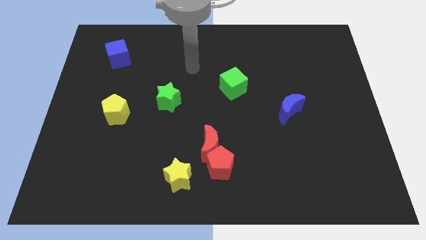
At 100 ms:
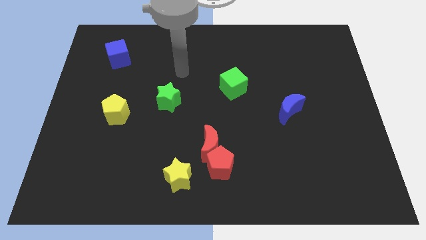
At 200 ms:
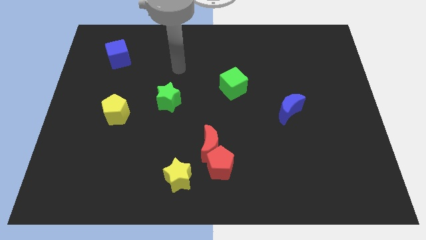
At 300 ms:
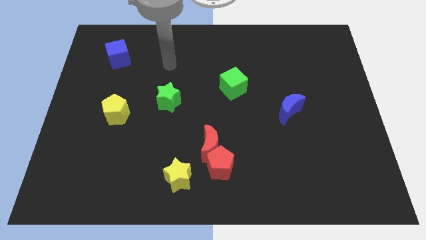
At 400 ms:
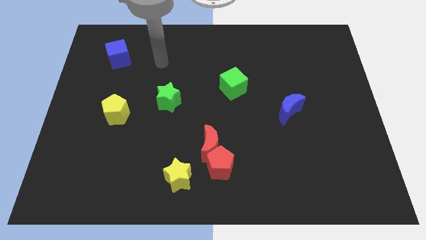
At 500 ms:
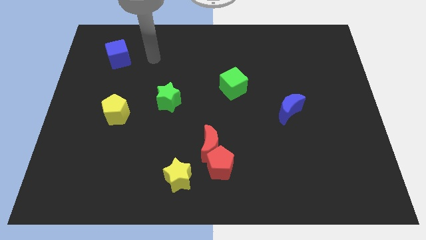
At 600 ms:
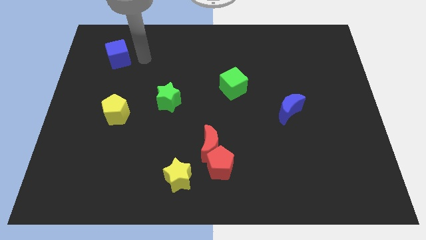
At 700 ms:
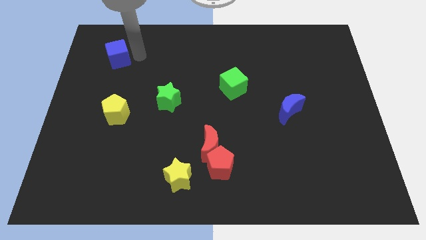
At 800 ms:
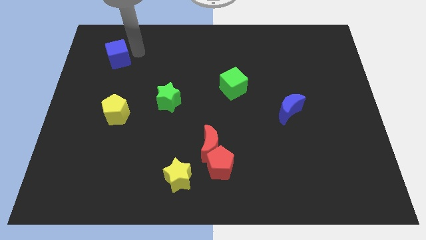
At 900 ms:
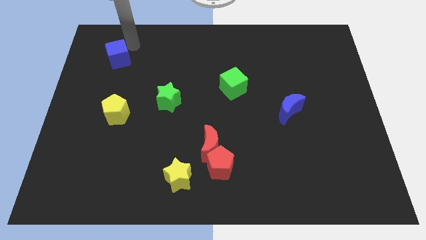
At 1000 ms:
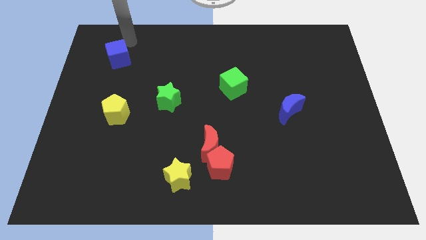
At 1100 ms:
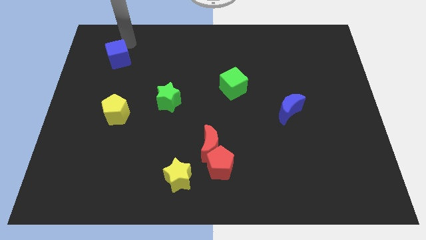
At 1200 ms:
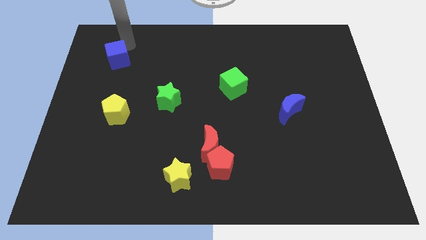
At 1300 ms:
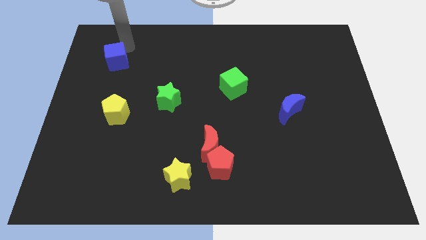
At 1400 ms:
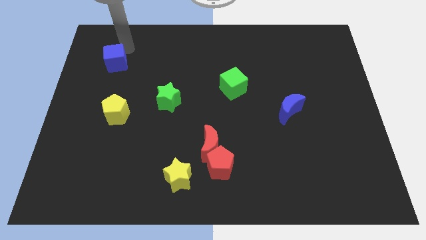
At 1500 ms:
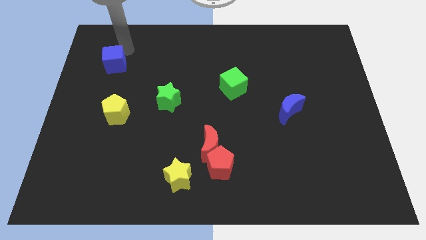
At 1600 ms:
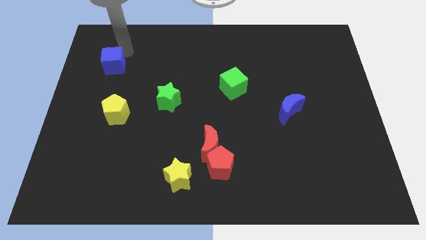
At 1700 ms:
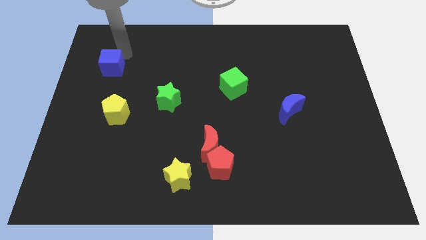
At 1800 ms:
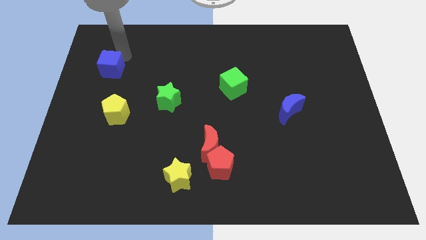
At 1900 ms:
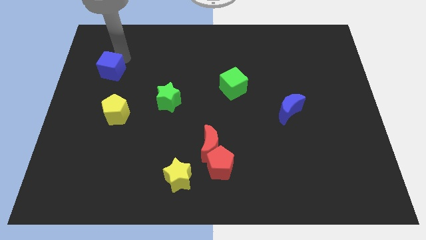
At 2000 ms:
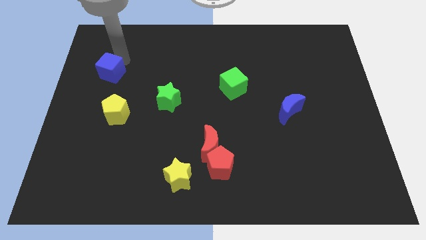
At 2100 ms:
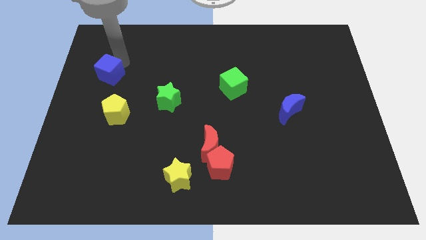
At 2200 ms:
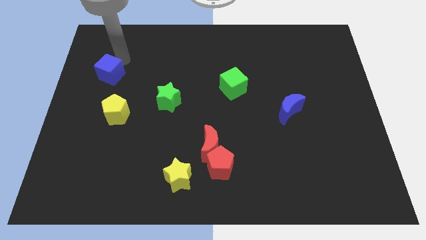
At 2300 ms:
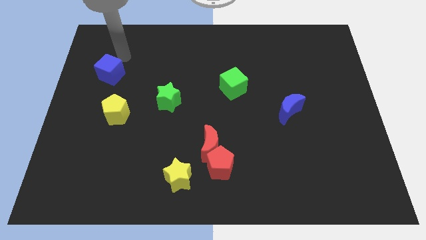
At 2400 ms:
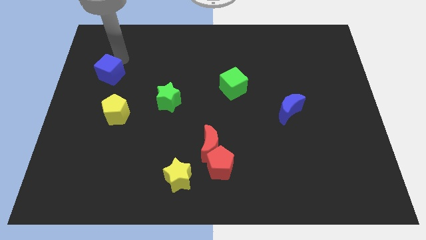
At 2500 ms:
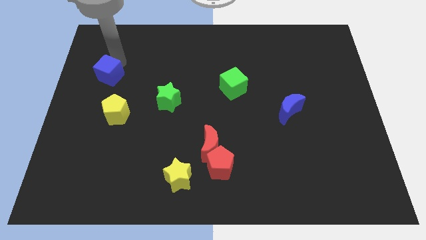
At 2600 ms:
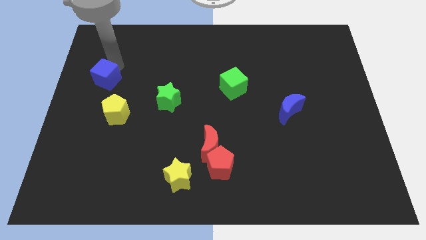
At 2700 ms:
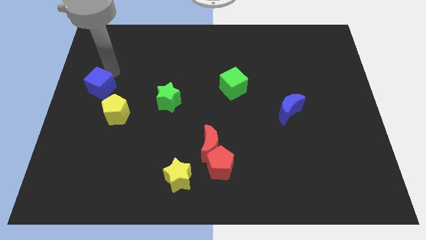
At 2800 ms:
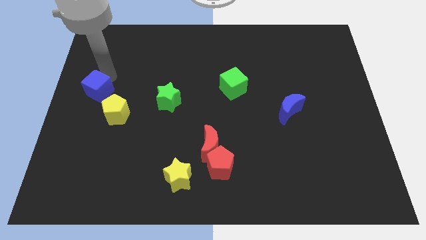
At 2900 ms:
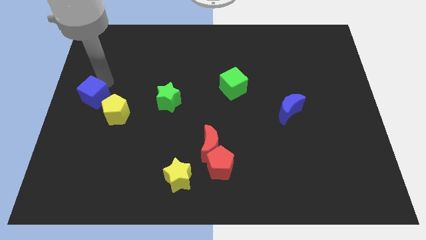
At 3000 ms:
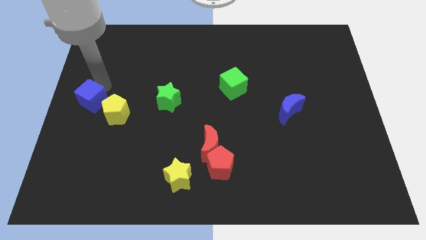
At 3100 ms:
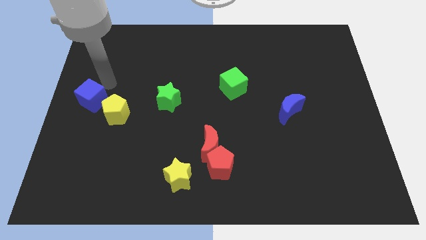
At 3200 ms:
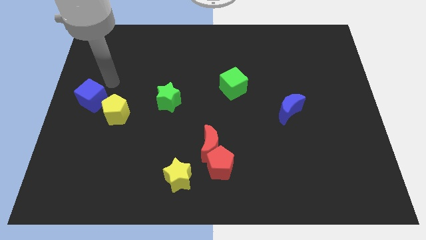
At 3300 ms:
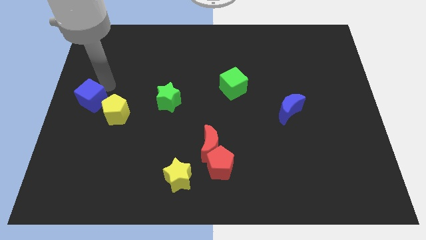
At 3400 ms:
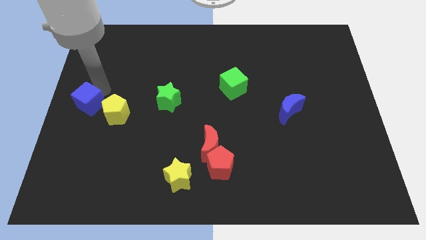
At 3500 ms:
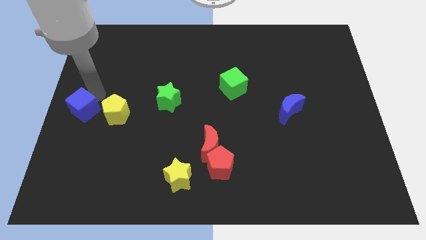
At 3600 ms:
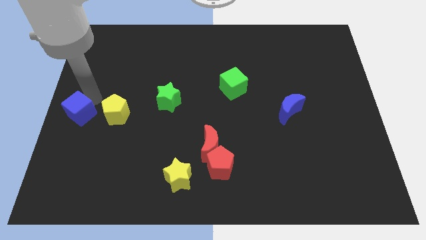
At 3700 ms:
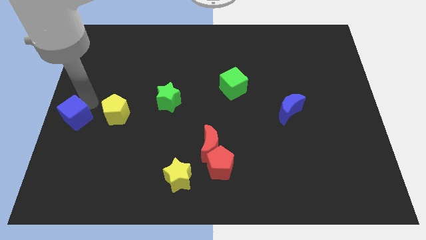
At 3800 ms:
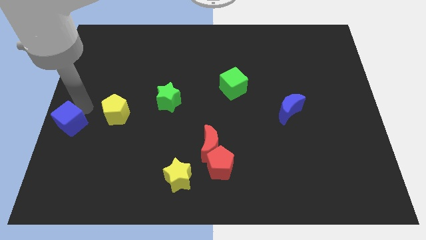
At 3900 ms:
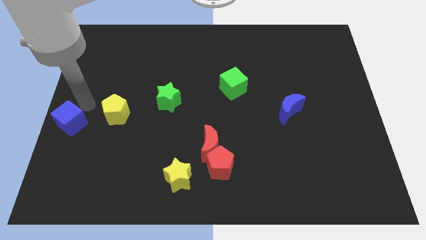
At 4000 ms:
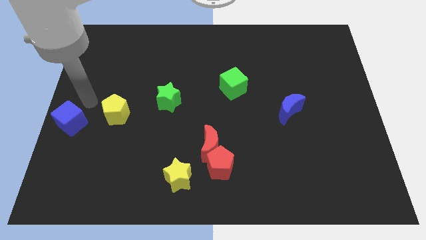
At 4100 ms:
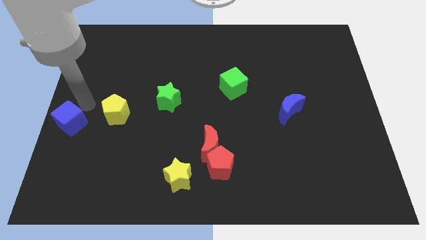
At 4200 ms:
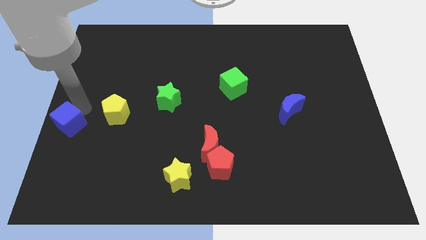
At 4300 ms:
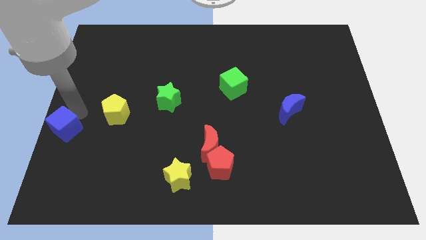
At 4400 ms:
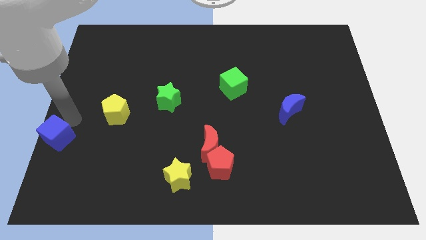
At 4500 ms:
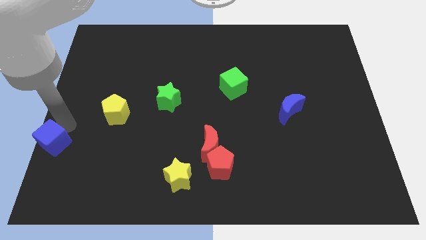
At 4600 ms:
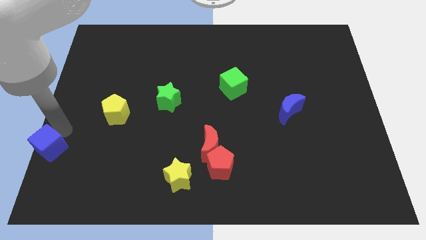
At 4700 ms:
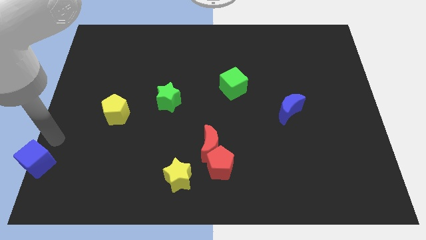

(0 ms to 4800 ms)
put the blue cube to the bottom left

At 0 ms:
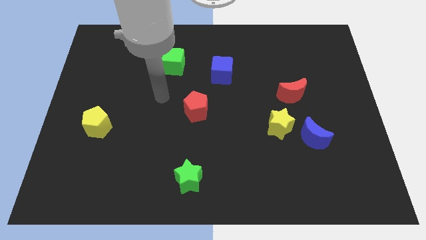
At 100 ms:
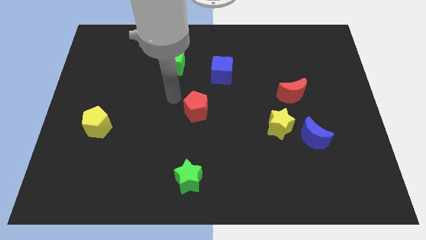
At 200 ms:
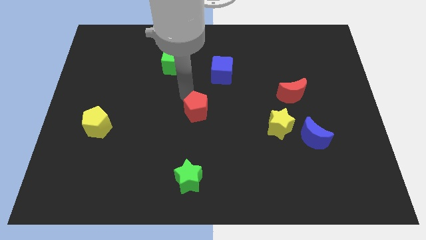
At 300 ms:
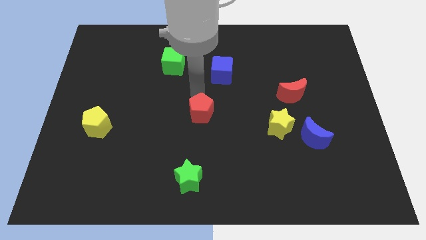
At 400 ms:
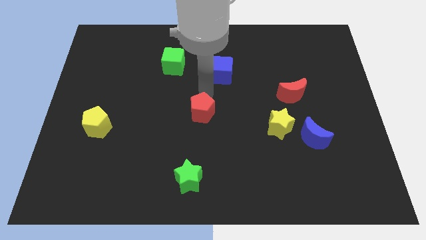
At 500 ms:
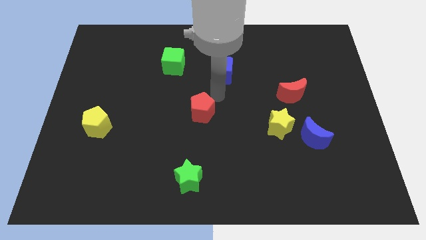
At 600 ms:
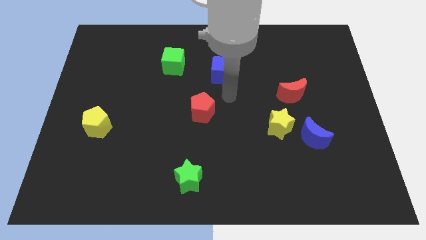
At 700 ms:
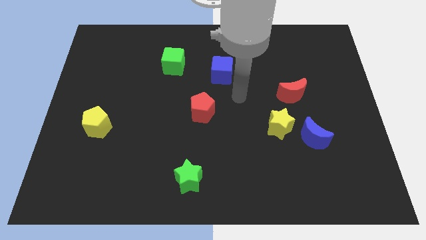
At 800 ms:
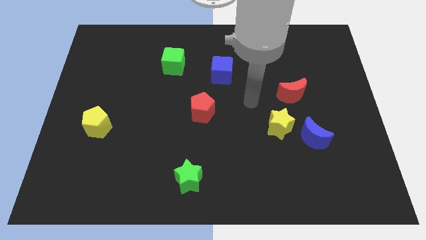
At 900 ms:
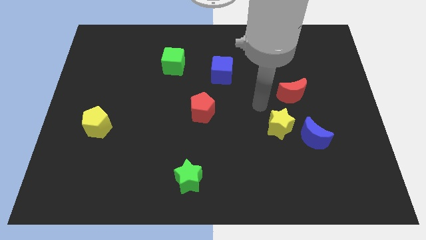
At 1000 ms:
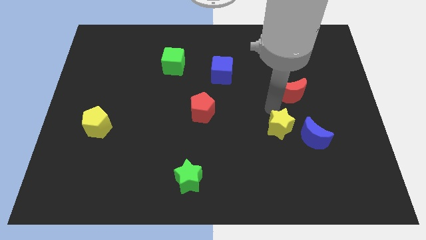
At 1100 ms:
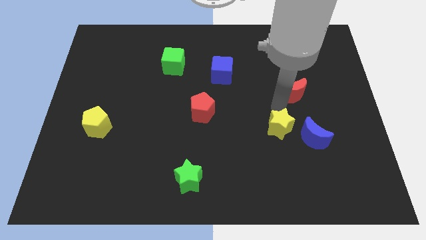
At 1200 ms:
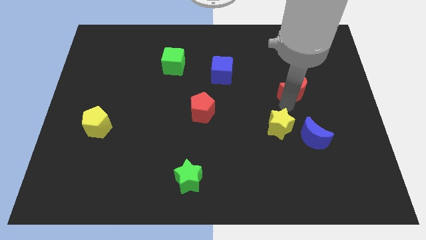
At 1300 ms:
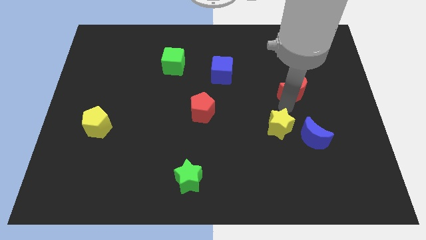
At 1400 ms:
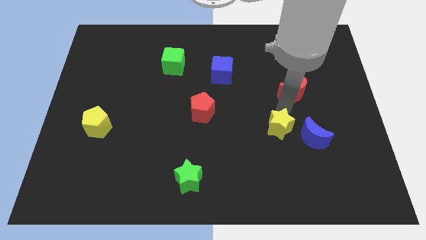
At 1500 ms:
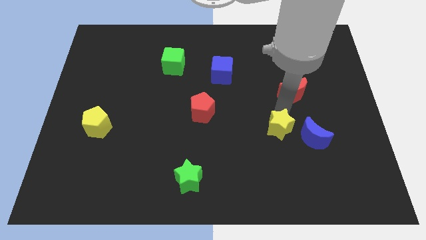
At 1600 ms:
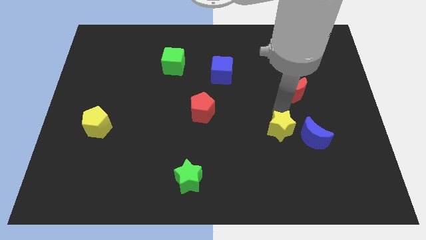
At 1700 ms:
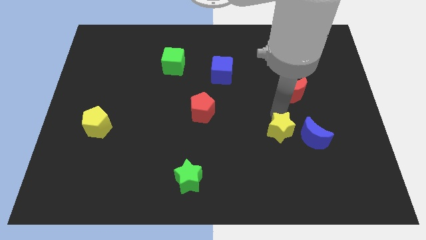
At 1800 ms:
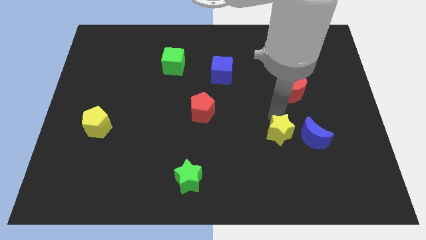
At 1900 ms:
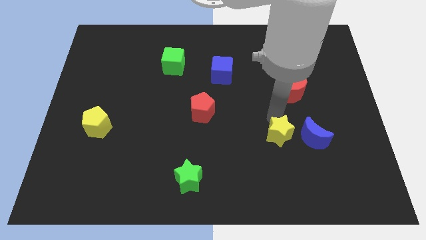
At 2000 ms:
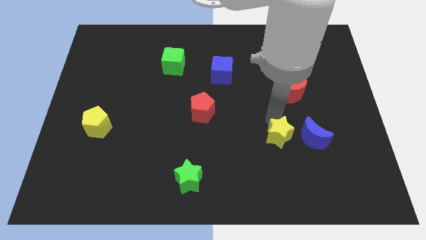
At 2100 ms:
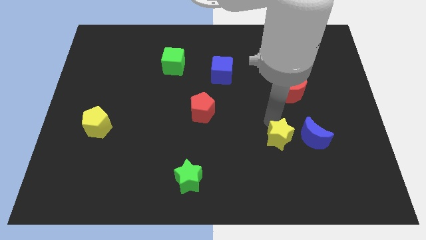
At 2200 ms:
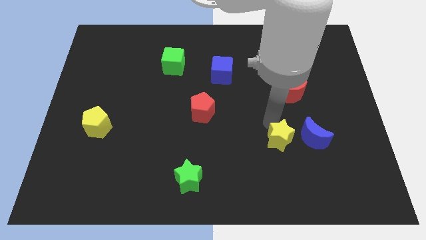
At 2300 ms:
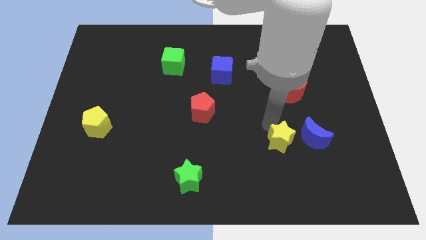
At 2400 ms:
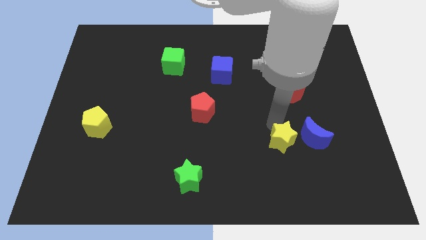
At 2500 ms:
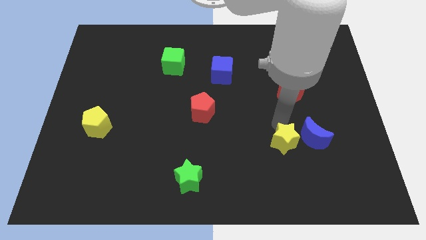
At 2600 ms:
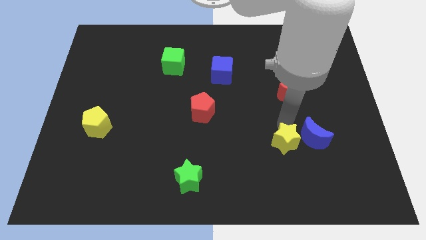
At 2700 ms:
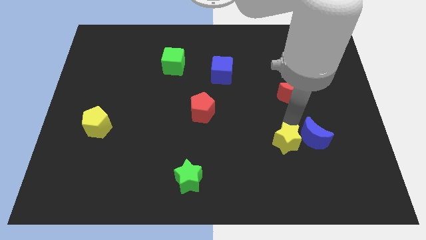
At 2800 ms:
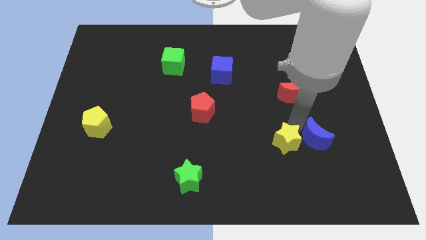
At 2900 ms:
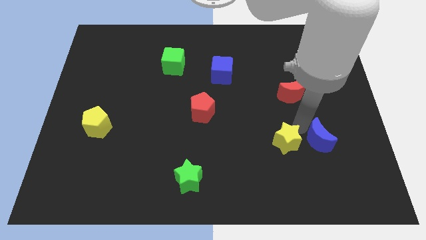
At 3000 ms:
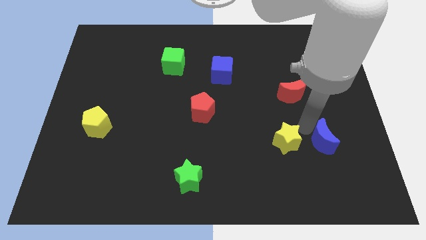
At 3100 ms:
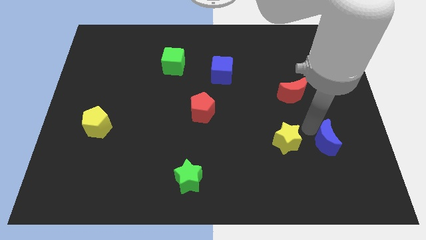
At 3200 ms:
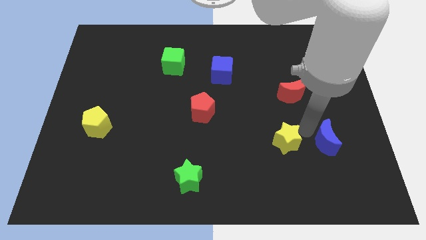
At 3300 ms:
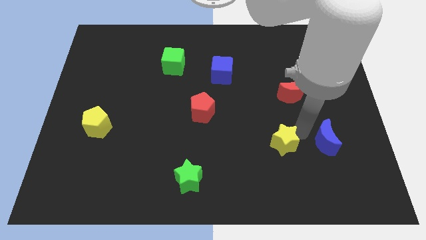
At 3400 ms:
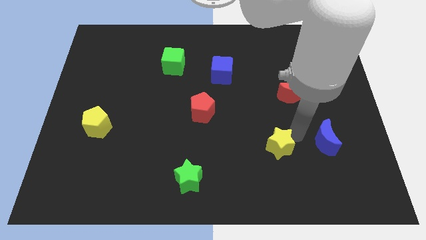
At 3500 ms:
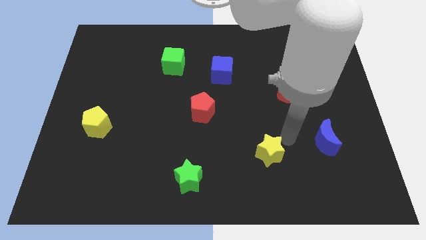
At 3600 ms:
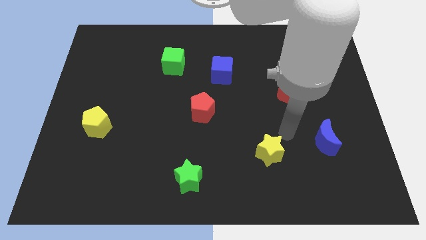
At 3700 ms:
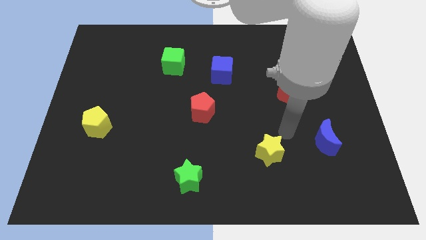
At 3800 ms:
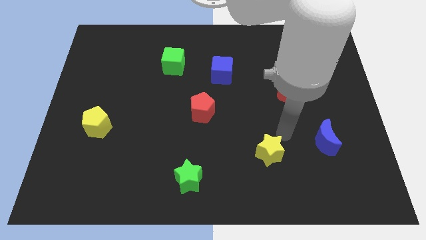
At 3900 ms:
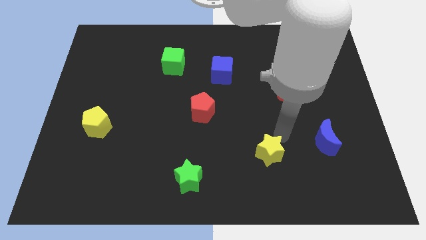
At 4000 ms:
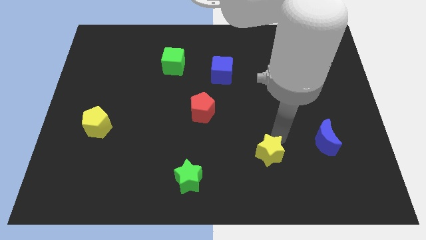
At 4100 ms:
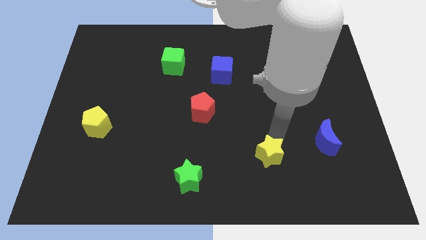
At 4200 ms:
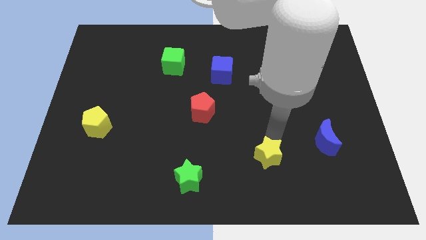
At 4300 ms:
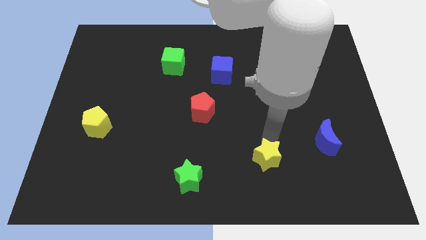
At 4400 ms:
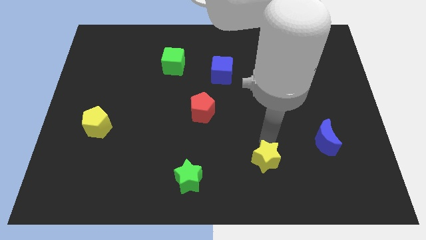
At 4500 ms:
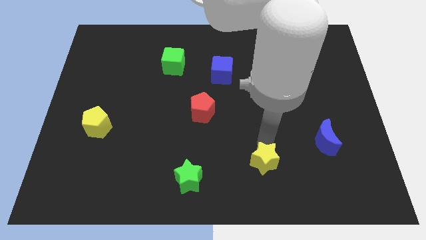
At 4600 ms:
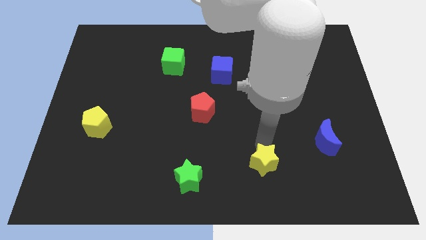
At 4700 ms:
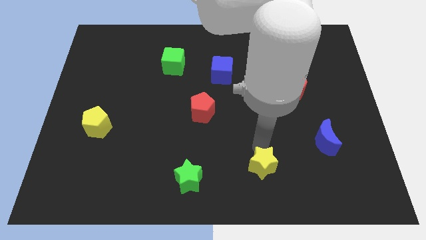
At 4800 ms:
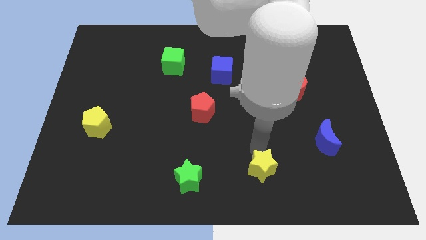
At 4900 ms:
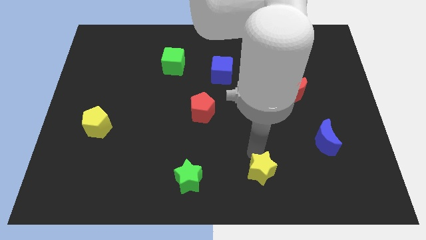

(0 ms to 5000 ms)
move the yellow star to the bottom side
